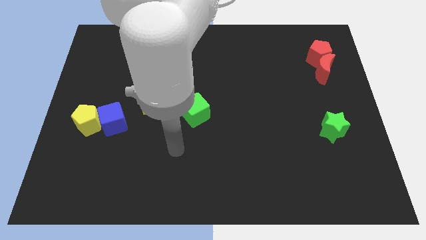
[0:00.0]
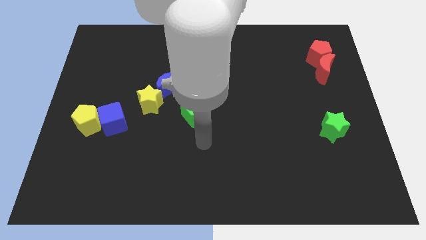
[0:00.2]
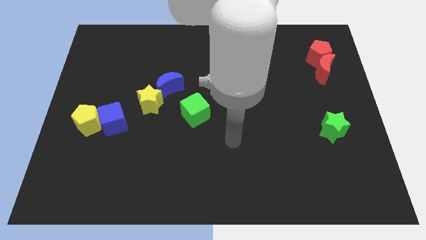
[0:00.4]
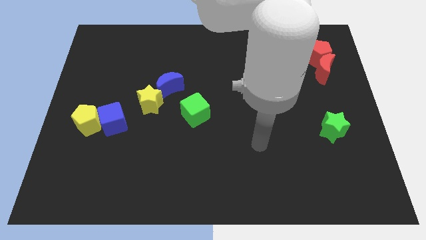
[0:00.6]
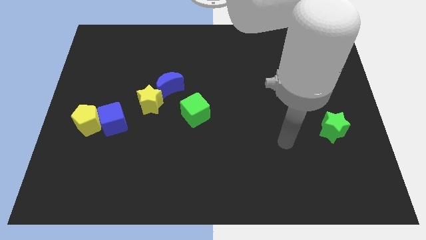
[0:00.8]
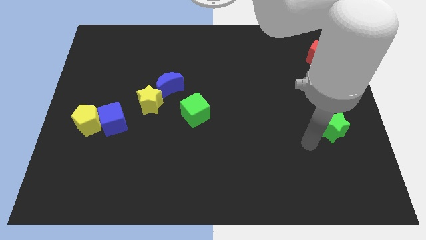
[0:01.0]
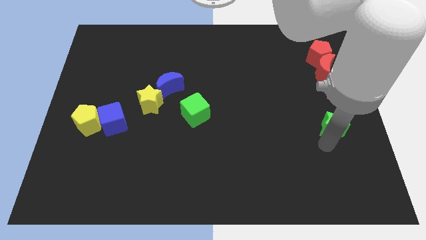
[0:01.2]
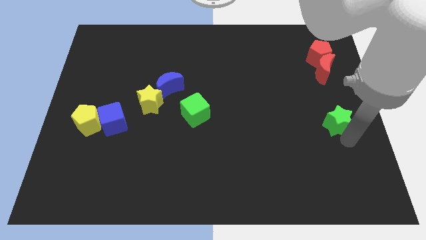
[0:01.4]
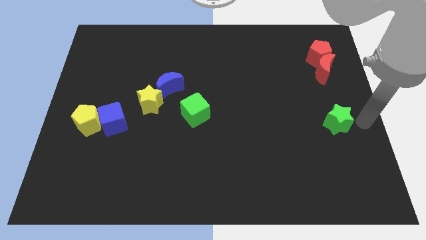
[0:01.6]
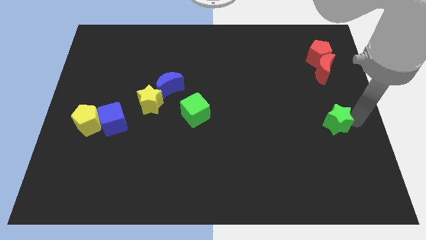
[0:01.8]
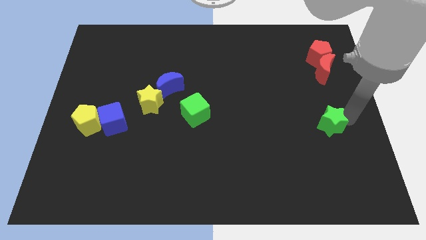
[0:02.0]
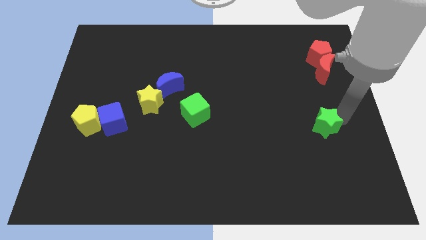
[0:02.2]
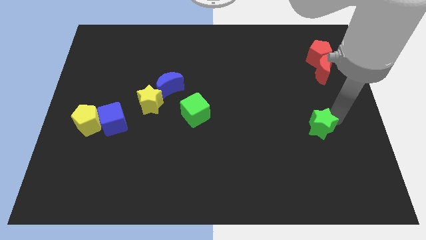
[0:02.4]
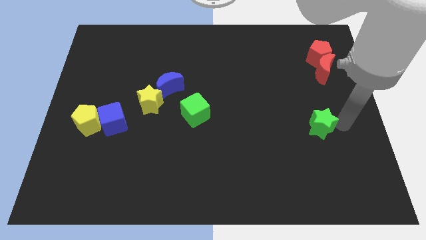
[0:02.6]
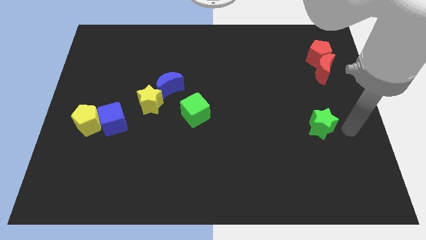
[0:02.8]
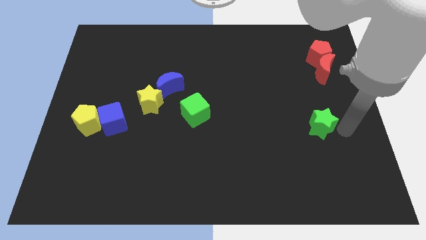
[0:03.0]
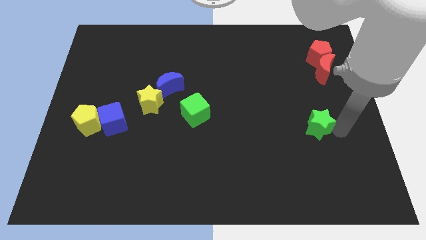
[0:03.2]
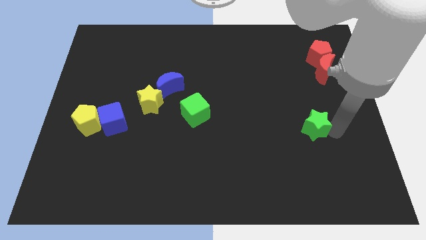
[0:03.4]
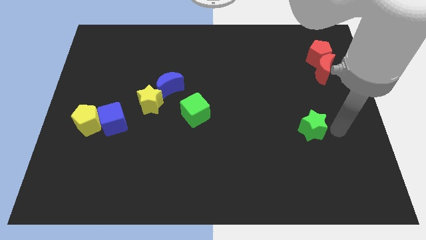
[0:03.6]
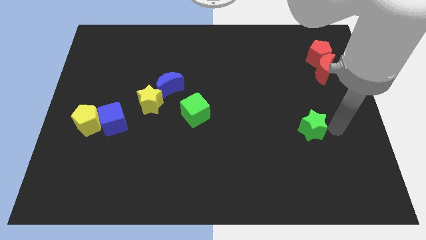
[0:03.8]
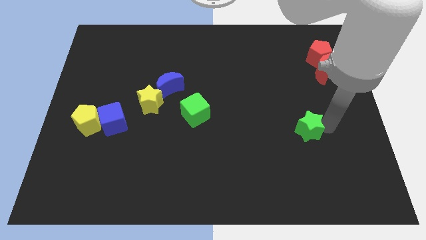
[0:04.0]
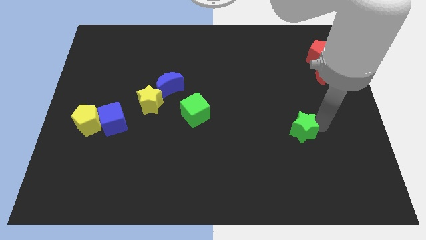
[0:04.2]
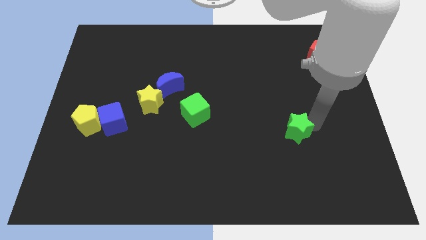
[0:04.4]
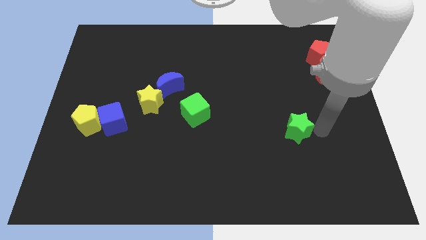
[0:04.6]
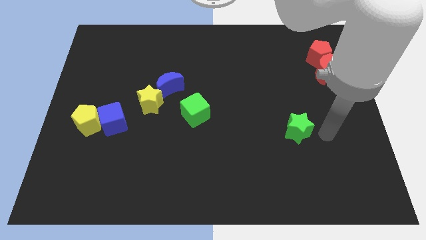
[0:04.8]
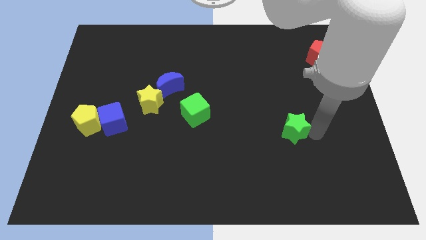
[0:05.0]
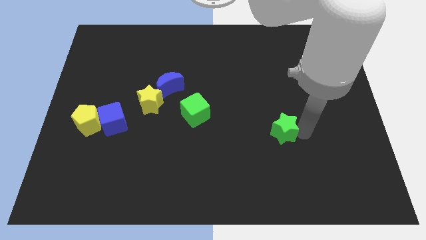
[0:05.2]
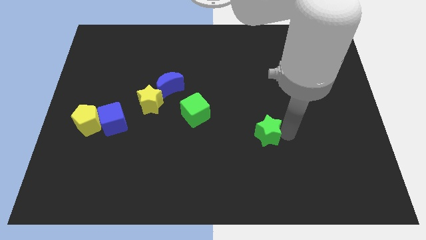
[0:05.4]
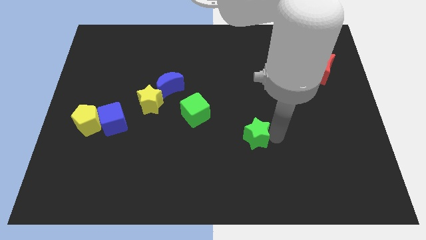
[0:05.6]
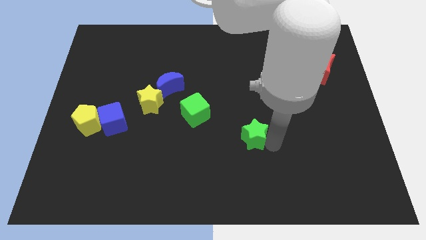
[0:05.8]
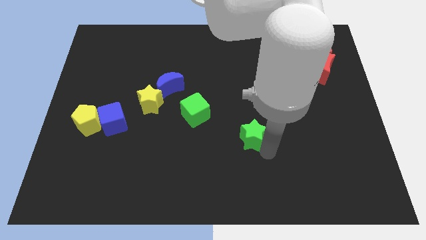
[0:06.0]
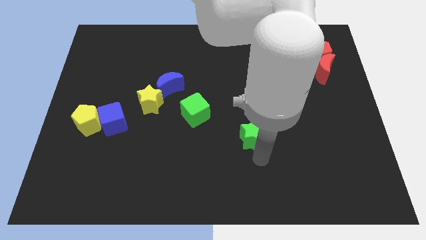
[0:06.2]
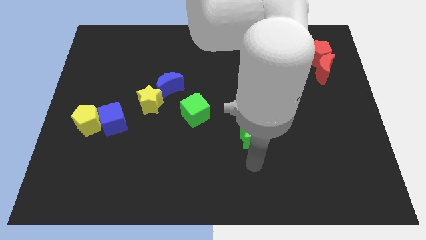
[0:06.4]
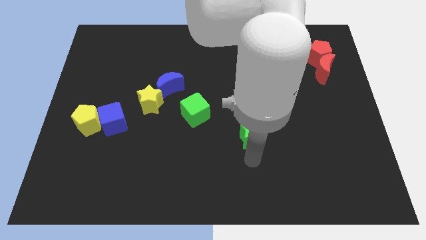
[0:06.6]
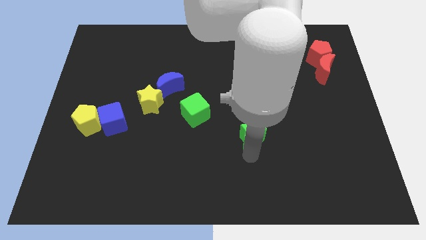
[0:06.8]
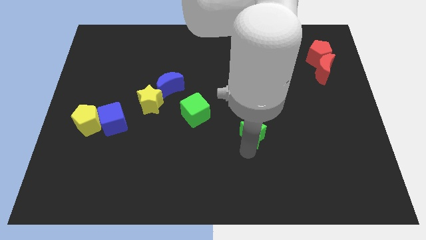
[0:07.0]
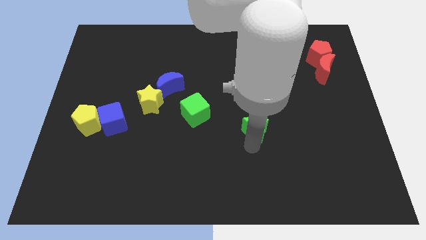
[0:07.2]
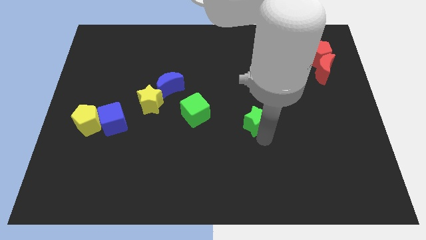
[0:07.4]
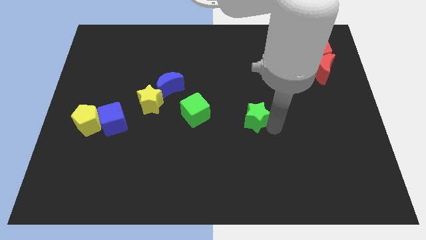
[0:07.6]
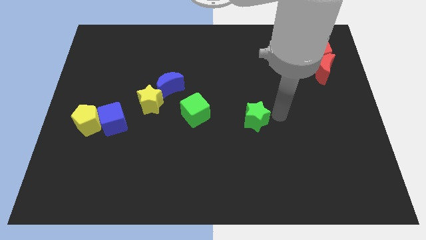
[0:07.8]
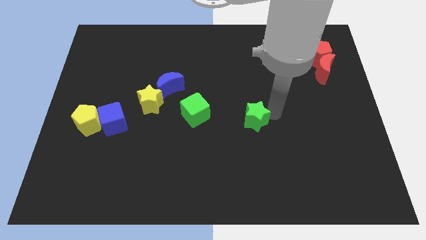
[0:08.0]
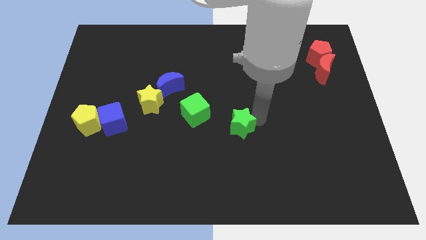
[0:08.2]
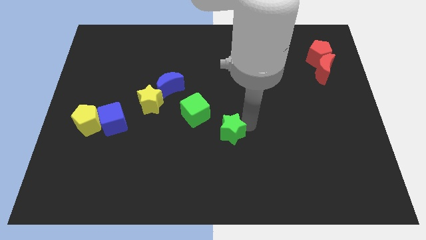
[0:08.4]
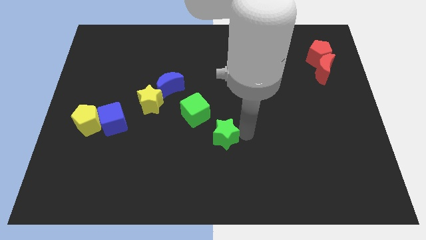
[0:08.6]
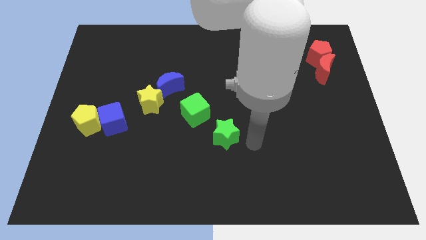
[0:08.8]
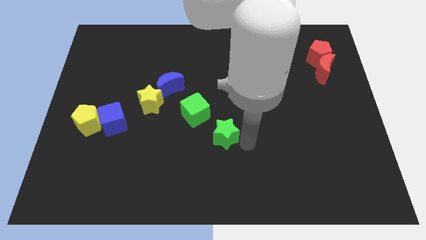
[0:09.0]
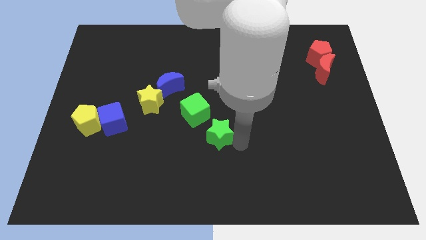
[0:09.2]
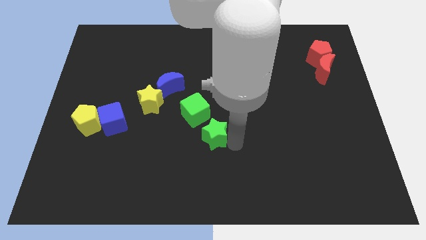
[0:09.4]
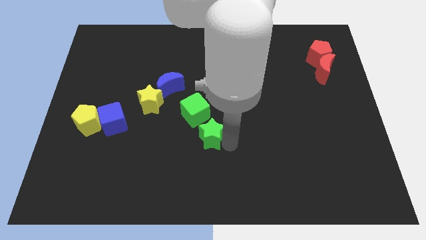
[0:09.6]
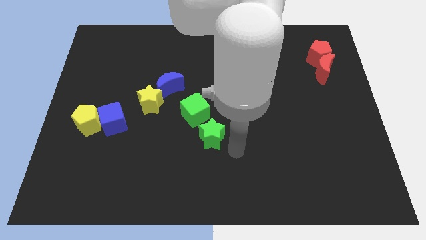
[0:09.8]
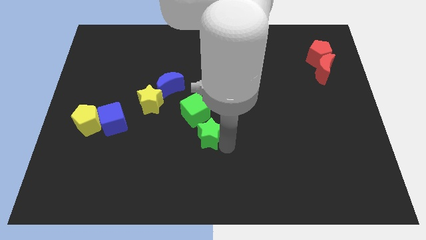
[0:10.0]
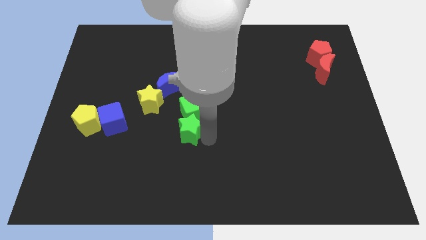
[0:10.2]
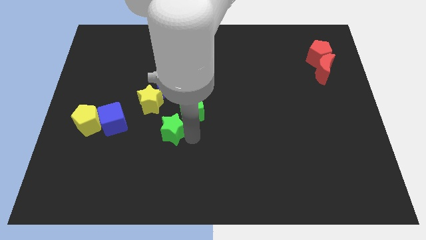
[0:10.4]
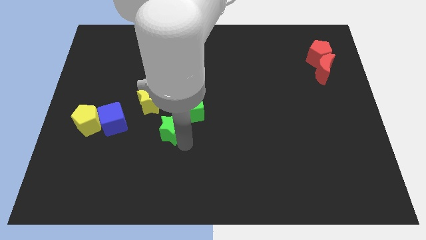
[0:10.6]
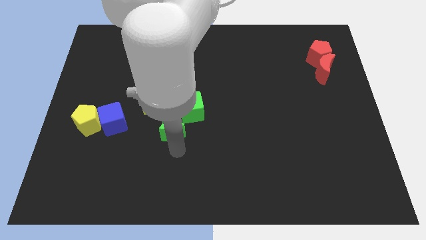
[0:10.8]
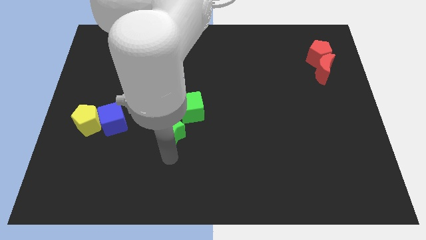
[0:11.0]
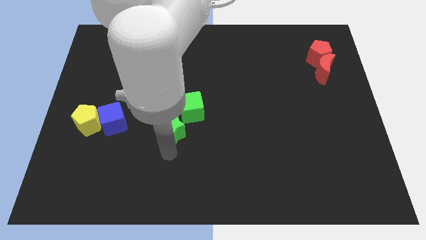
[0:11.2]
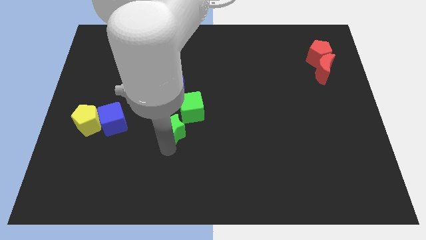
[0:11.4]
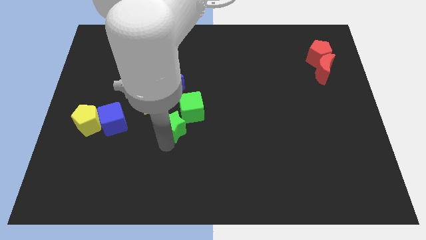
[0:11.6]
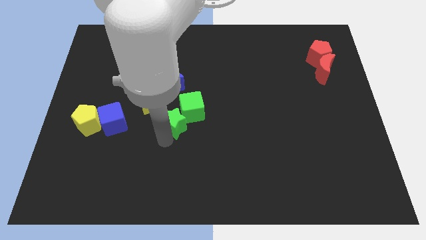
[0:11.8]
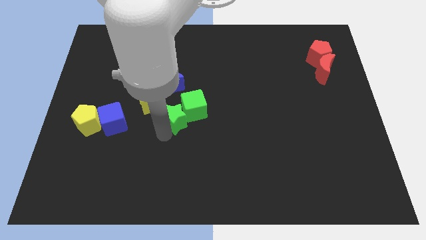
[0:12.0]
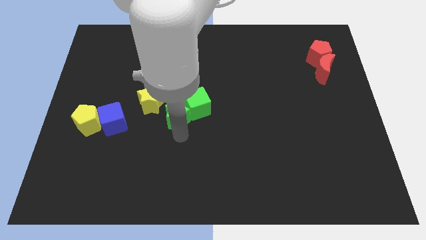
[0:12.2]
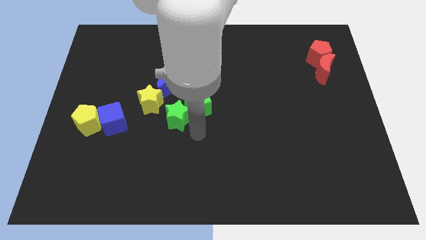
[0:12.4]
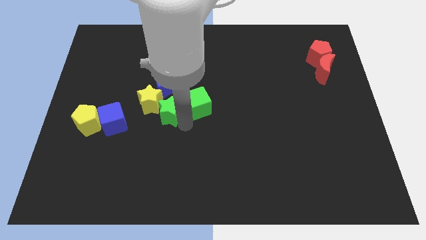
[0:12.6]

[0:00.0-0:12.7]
put the green star close to the yellow star

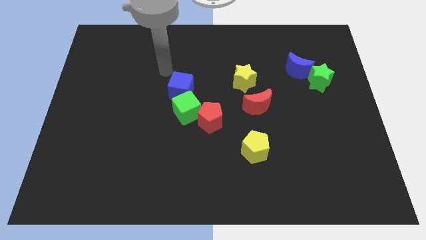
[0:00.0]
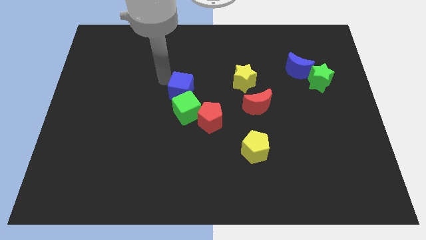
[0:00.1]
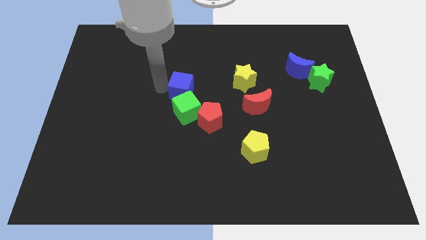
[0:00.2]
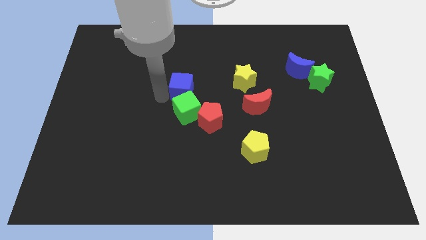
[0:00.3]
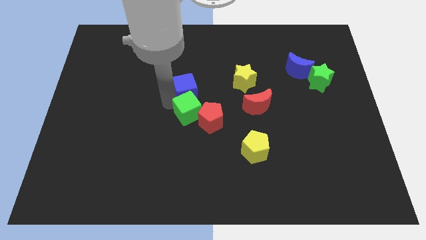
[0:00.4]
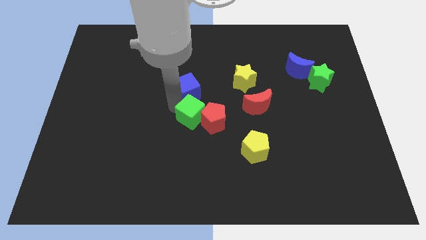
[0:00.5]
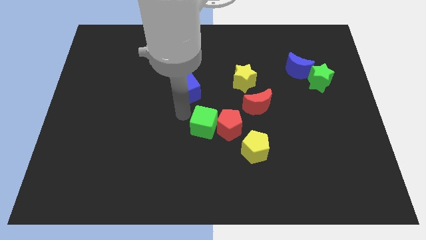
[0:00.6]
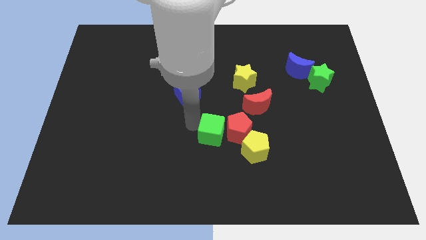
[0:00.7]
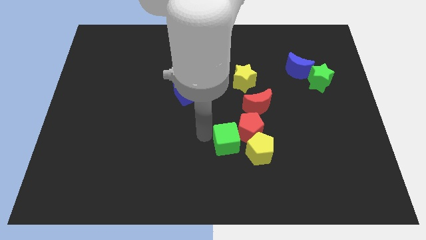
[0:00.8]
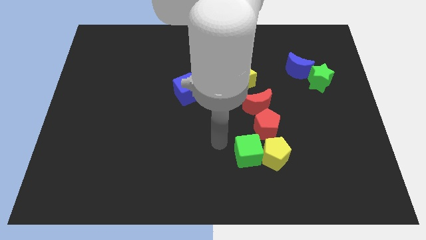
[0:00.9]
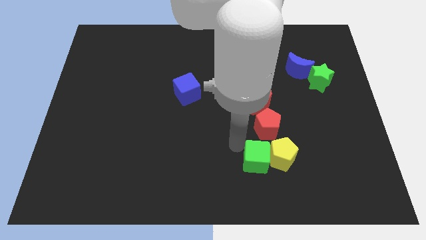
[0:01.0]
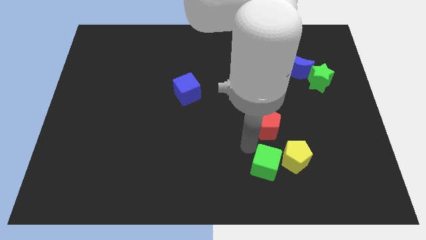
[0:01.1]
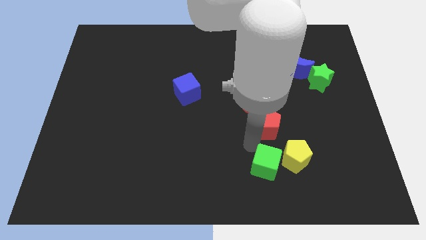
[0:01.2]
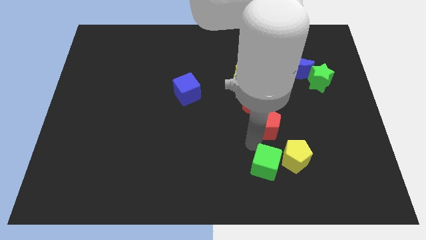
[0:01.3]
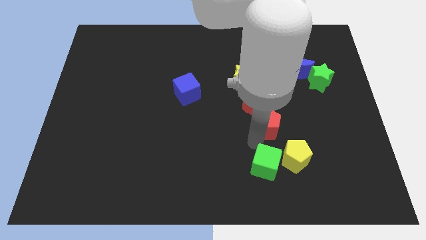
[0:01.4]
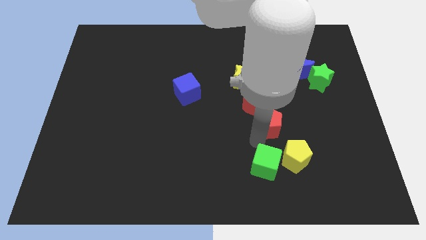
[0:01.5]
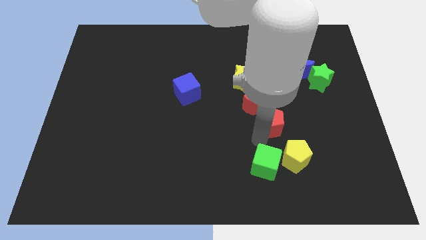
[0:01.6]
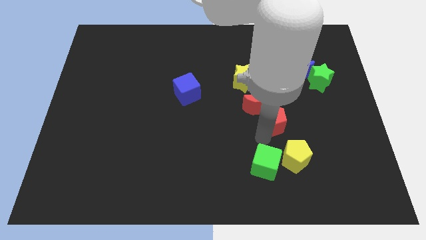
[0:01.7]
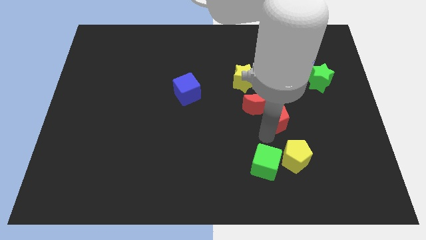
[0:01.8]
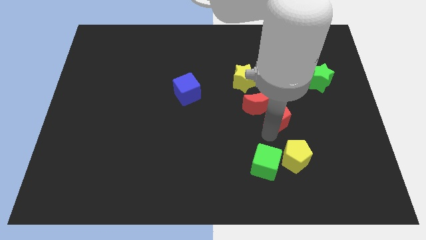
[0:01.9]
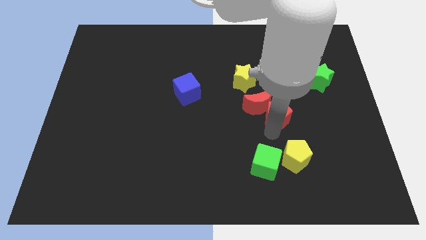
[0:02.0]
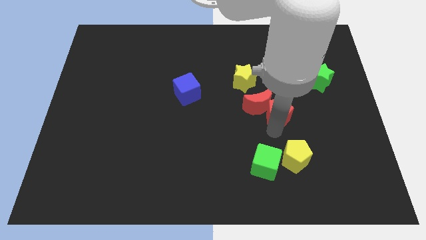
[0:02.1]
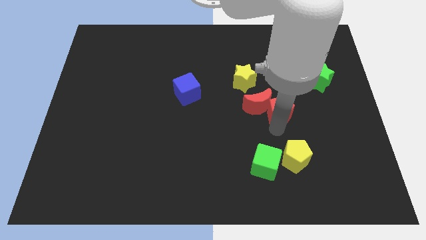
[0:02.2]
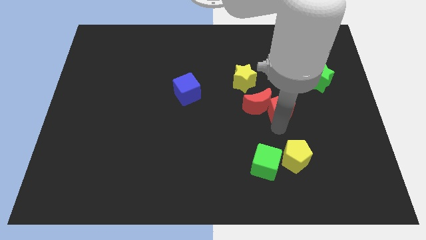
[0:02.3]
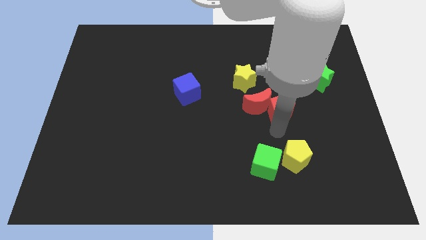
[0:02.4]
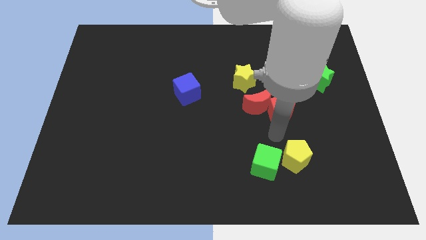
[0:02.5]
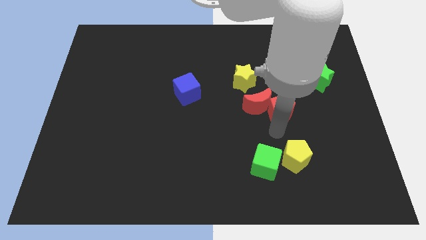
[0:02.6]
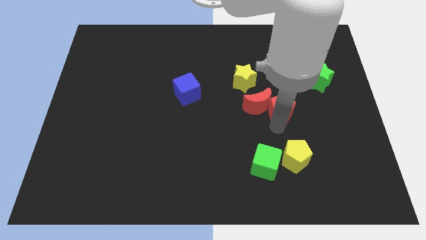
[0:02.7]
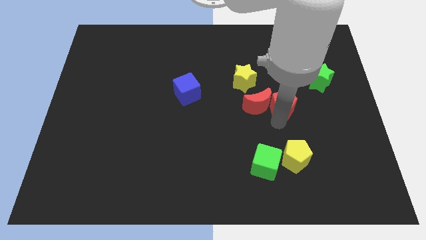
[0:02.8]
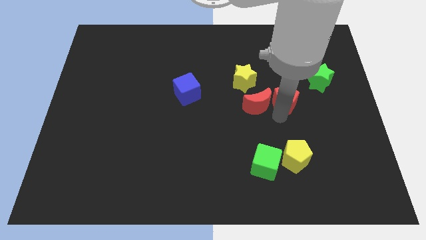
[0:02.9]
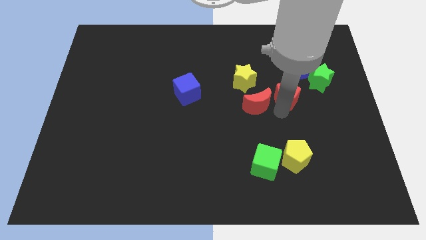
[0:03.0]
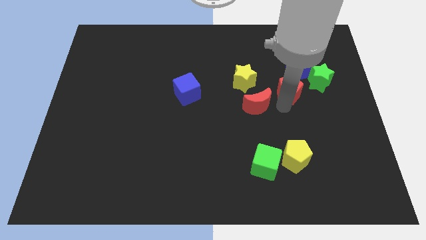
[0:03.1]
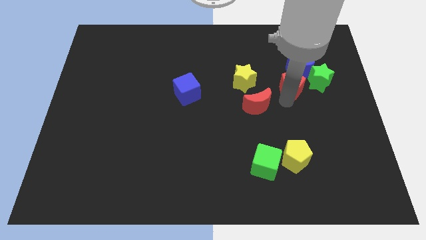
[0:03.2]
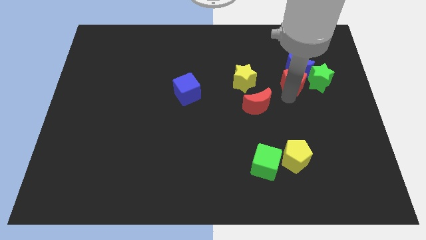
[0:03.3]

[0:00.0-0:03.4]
put the red pentagon close to the blue moon
